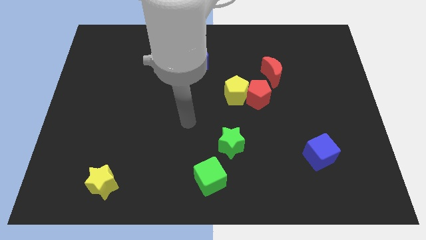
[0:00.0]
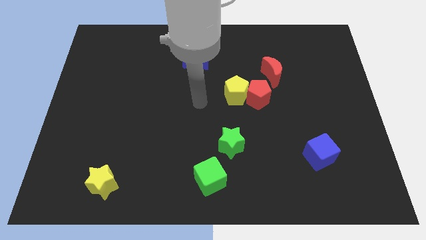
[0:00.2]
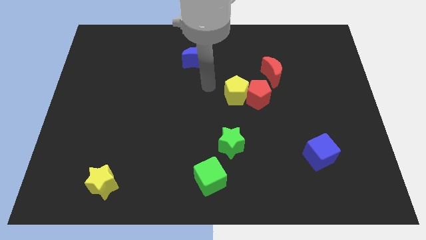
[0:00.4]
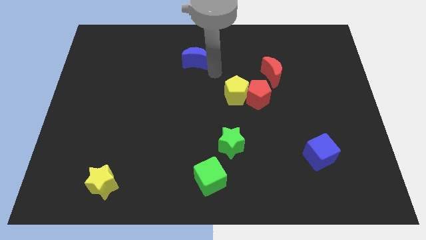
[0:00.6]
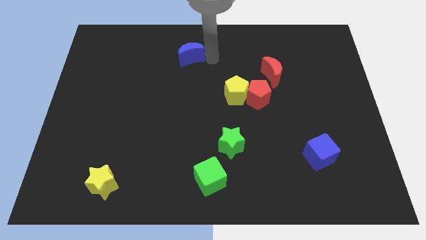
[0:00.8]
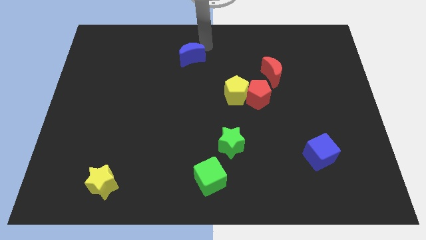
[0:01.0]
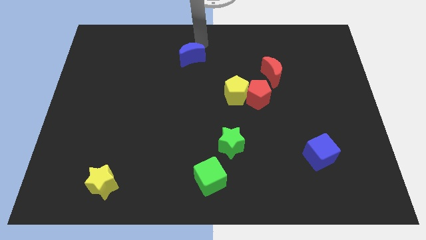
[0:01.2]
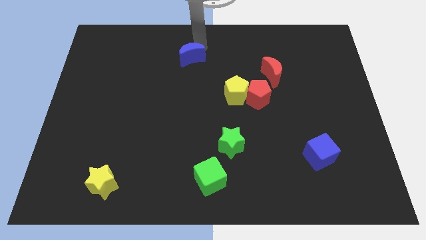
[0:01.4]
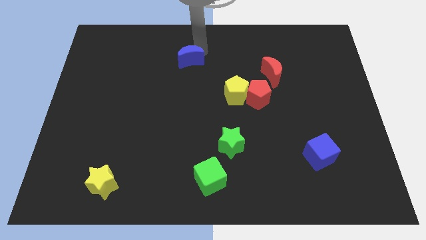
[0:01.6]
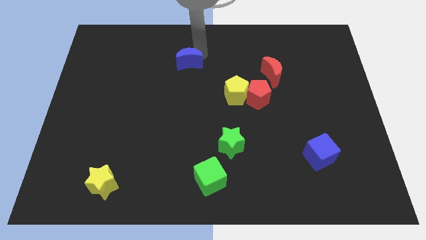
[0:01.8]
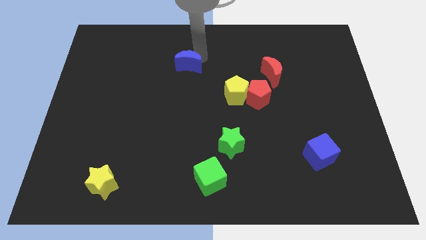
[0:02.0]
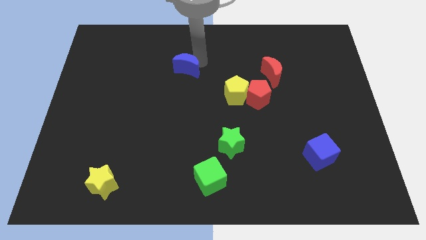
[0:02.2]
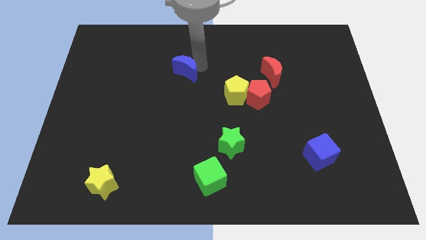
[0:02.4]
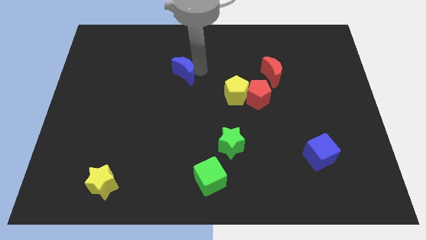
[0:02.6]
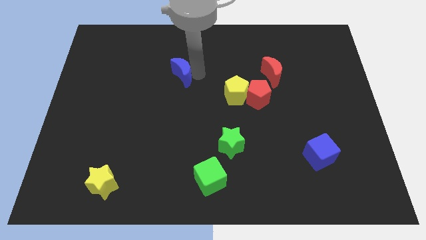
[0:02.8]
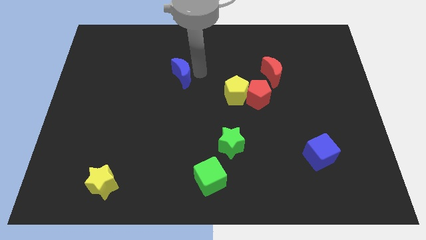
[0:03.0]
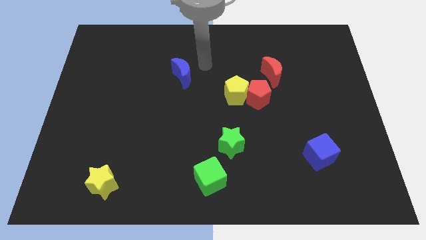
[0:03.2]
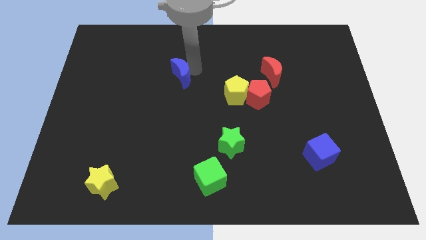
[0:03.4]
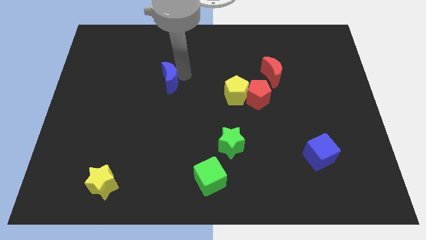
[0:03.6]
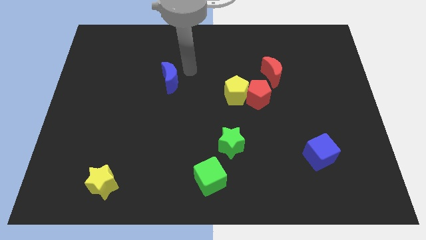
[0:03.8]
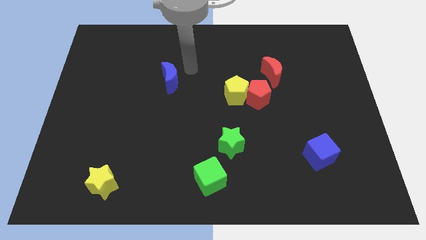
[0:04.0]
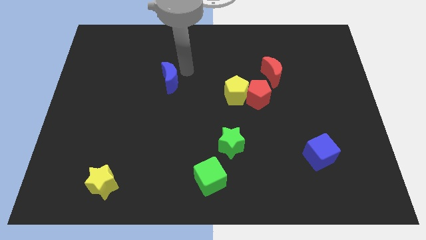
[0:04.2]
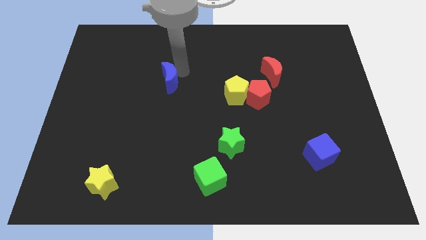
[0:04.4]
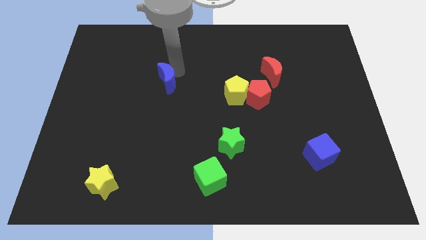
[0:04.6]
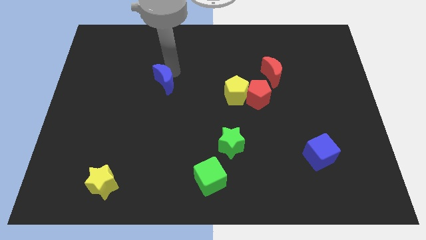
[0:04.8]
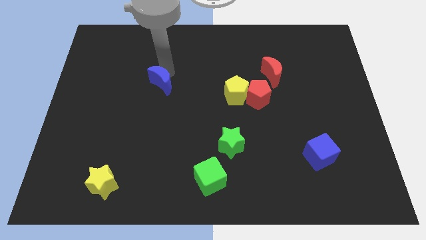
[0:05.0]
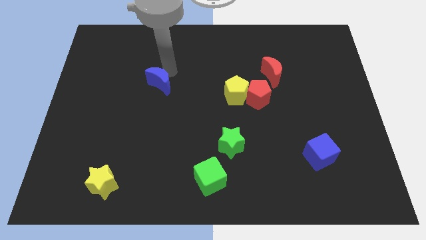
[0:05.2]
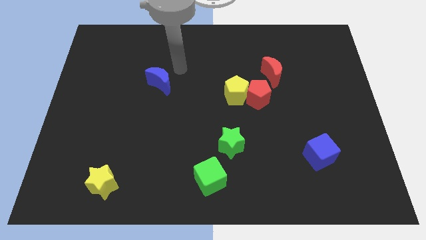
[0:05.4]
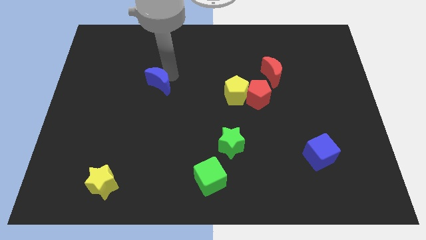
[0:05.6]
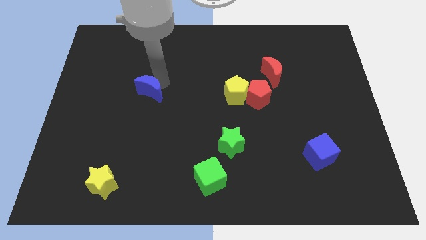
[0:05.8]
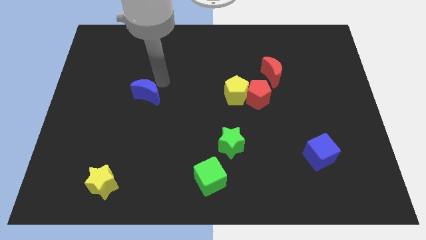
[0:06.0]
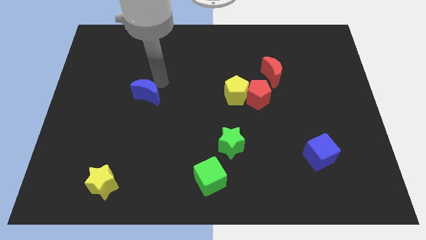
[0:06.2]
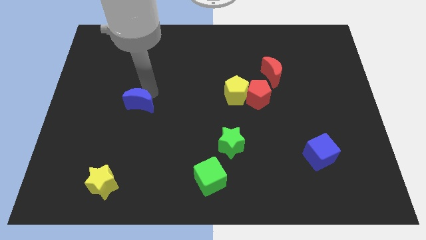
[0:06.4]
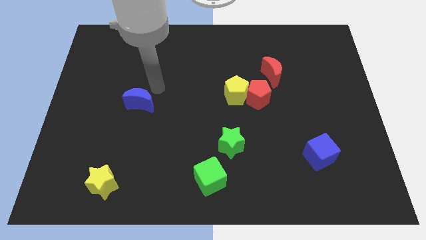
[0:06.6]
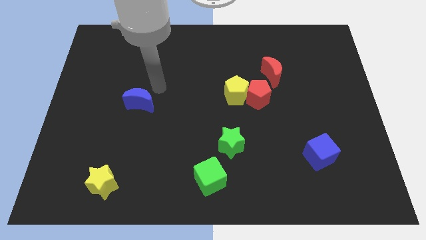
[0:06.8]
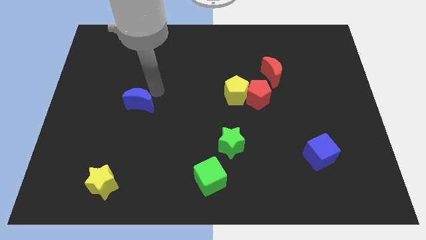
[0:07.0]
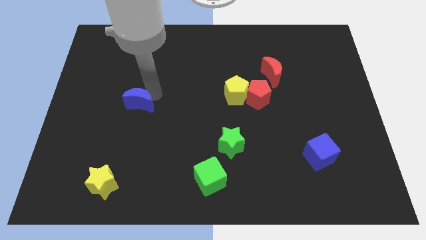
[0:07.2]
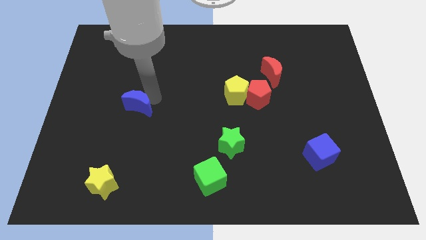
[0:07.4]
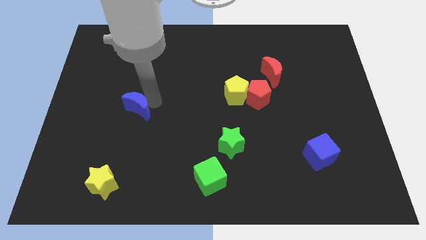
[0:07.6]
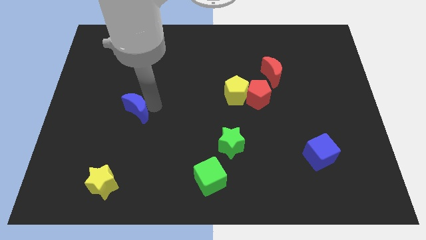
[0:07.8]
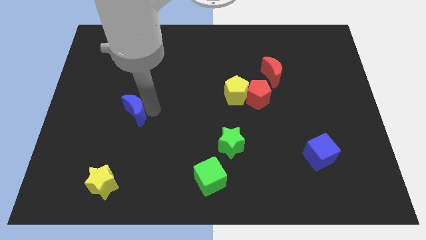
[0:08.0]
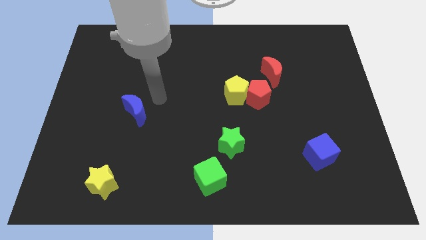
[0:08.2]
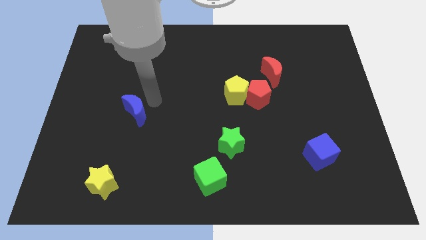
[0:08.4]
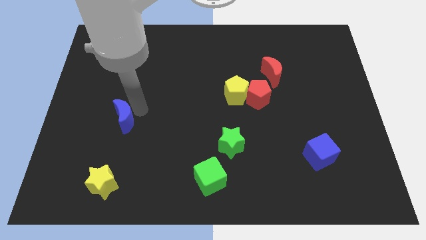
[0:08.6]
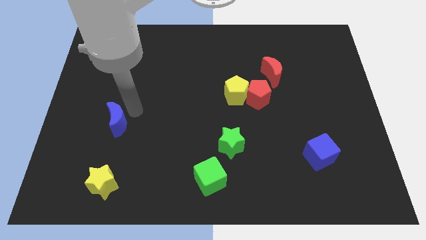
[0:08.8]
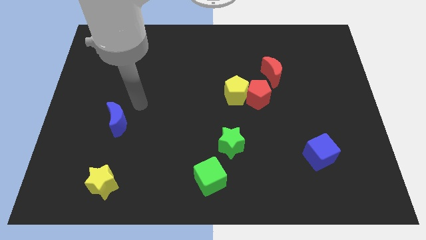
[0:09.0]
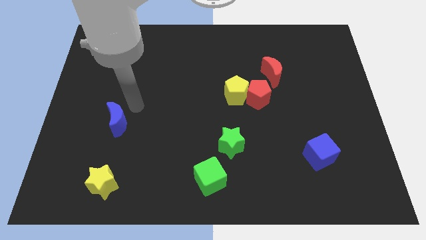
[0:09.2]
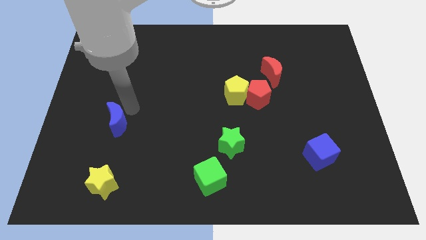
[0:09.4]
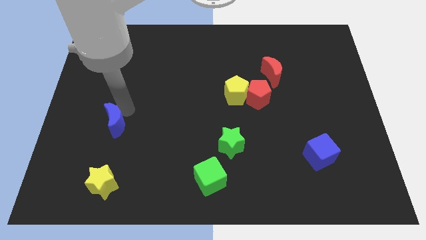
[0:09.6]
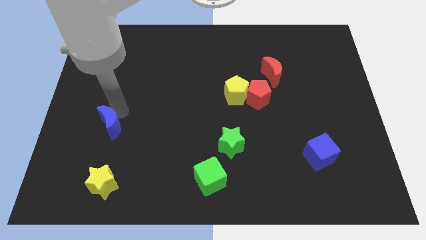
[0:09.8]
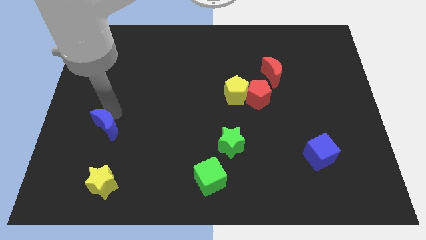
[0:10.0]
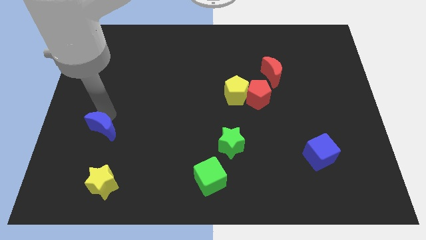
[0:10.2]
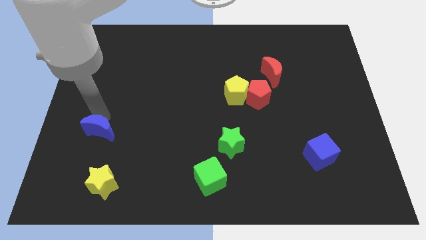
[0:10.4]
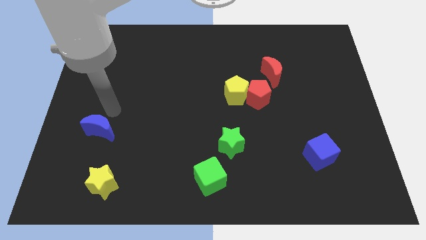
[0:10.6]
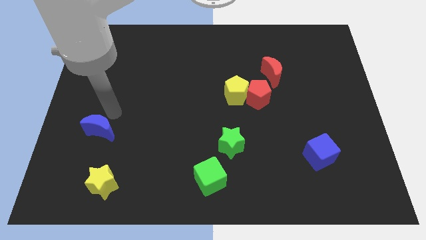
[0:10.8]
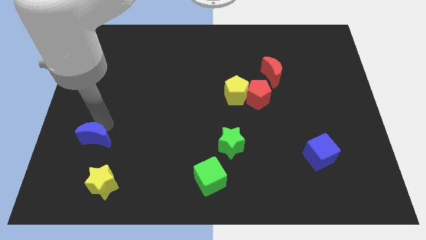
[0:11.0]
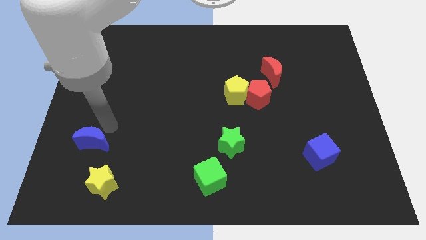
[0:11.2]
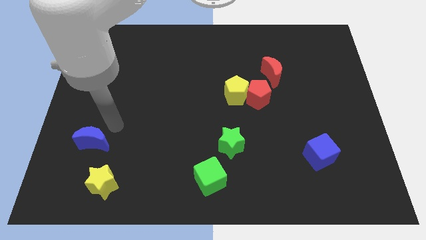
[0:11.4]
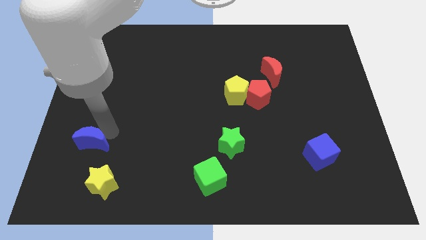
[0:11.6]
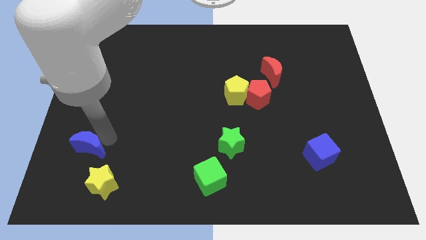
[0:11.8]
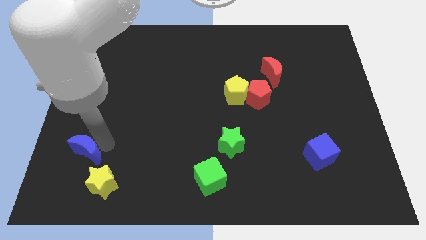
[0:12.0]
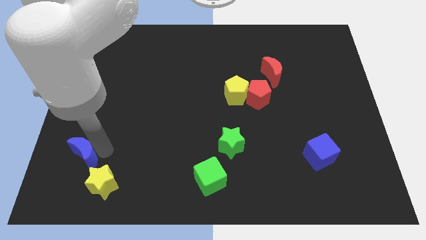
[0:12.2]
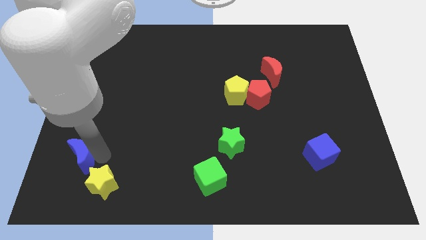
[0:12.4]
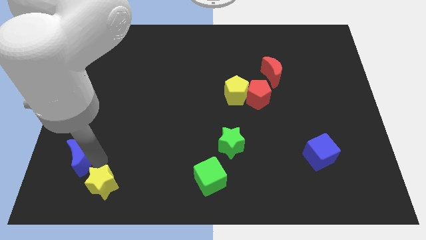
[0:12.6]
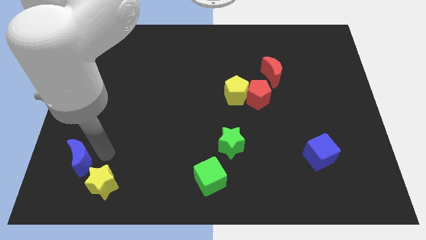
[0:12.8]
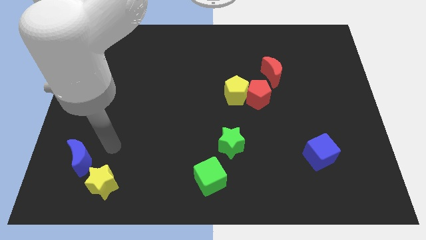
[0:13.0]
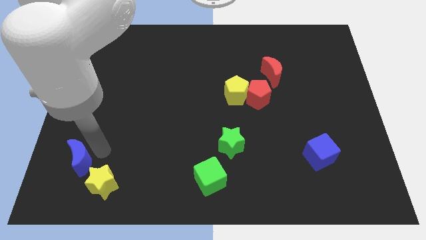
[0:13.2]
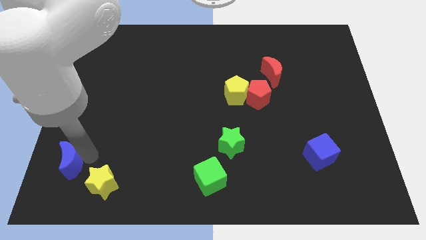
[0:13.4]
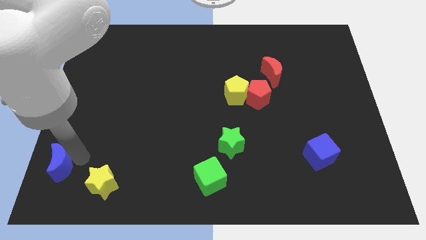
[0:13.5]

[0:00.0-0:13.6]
put the blue moon to the lower left corner
